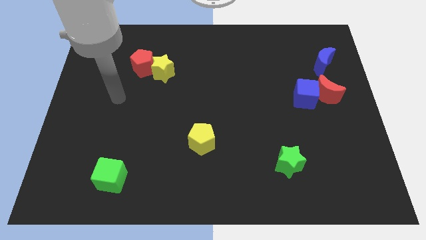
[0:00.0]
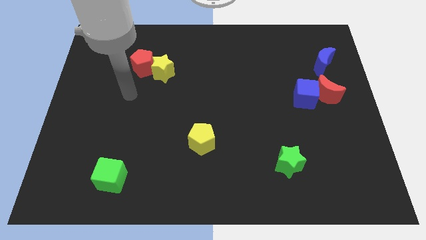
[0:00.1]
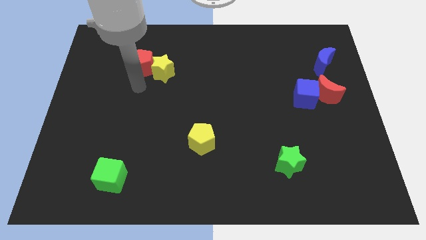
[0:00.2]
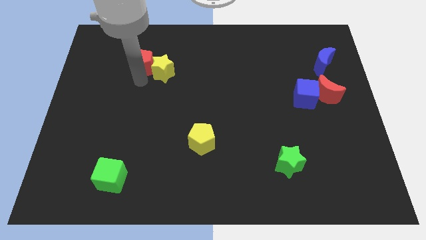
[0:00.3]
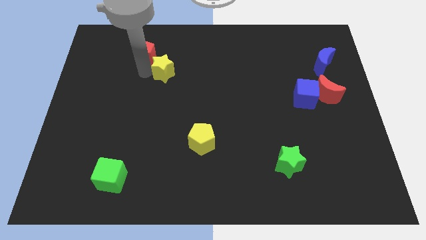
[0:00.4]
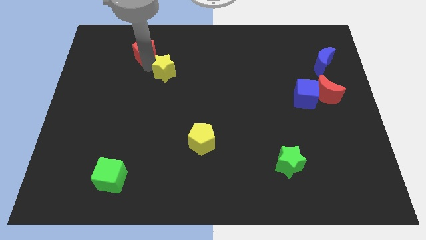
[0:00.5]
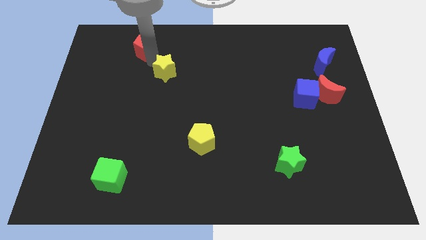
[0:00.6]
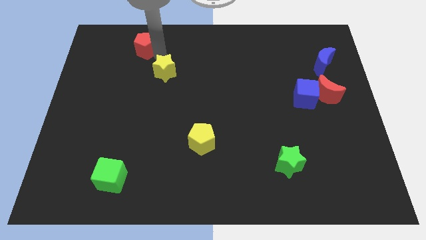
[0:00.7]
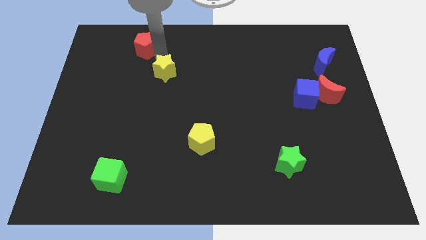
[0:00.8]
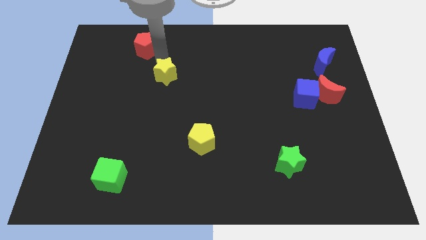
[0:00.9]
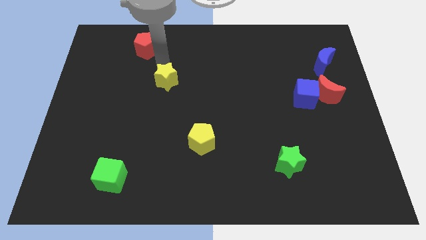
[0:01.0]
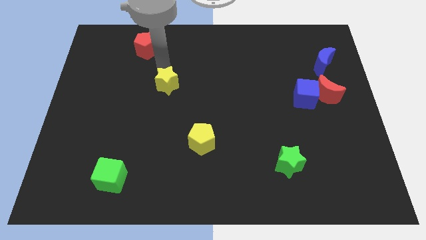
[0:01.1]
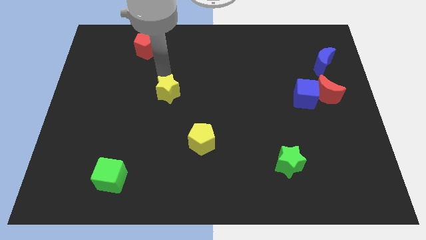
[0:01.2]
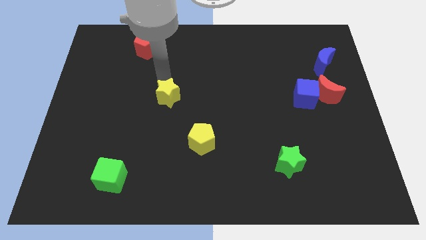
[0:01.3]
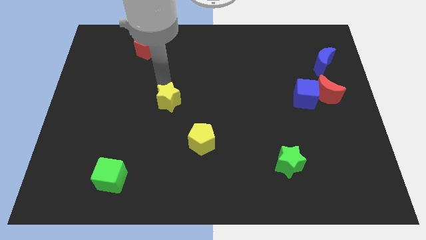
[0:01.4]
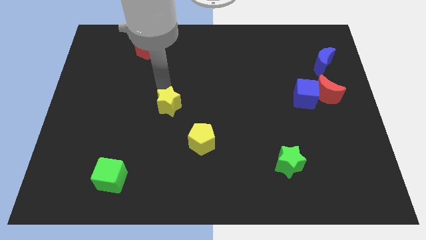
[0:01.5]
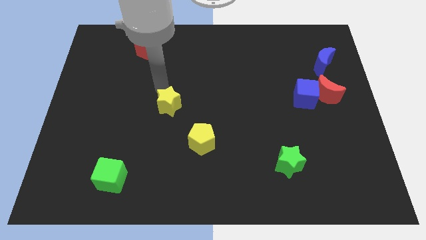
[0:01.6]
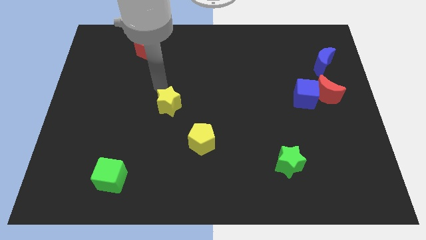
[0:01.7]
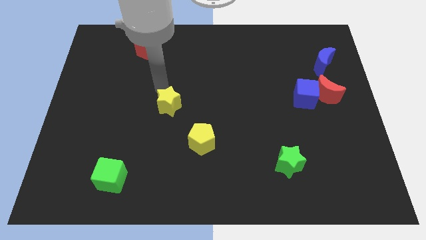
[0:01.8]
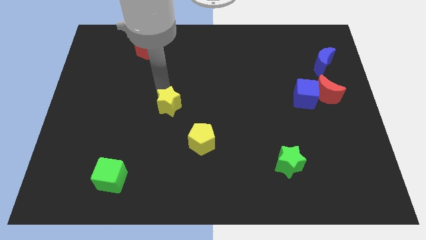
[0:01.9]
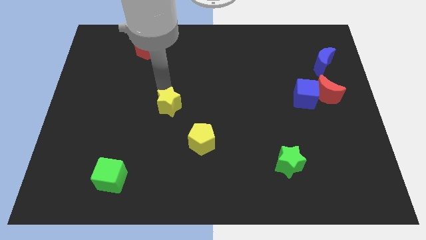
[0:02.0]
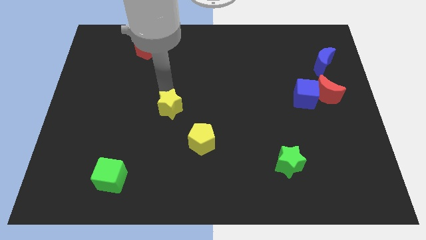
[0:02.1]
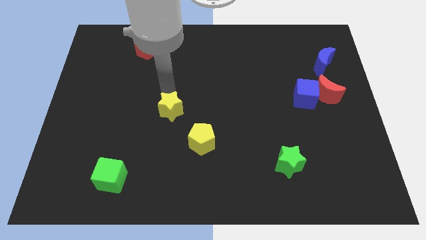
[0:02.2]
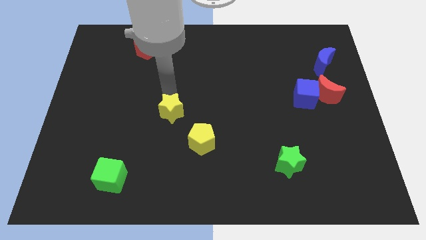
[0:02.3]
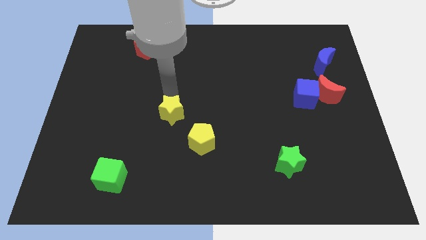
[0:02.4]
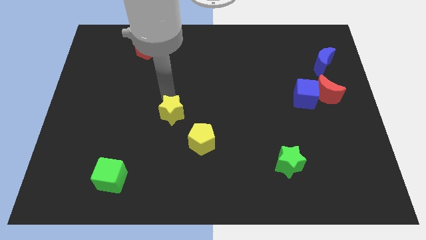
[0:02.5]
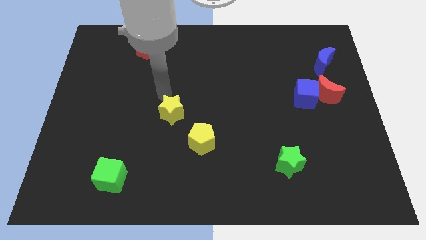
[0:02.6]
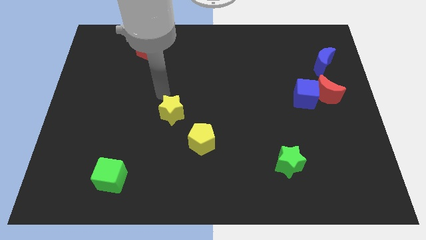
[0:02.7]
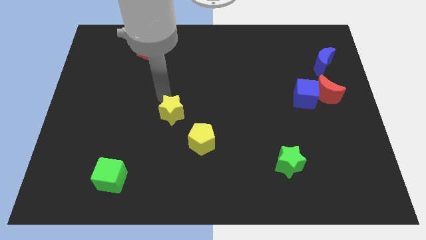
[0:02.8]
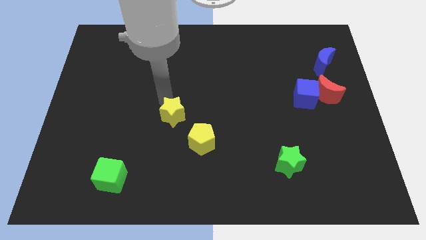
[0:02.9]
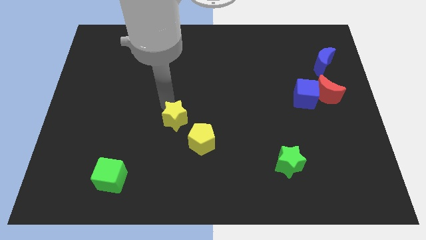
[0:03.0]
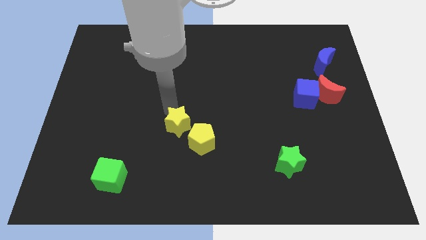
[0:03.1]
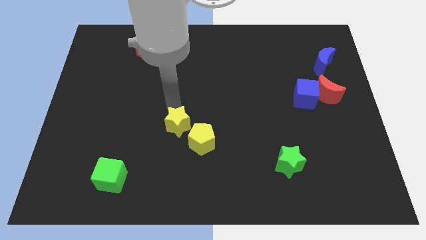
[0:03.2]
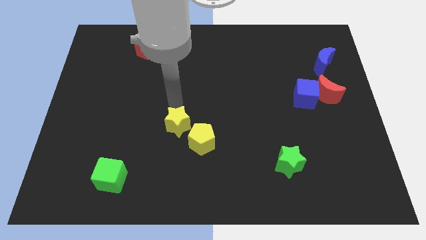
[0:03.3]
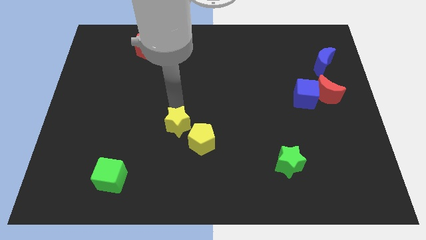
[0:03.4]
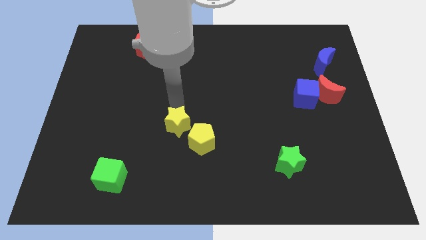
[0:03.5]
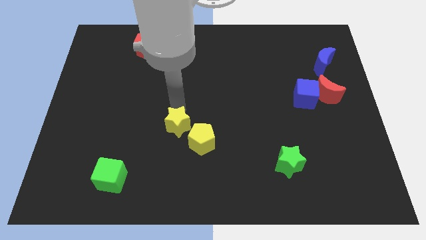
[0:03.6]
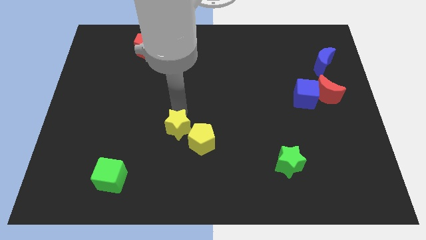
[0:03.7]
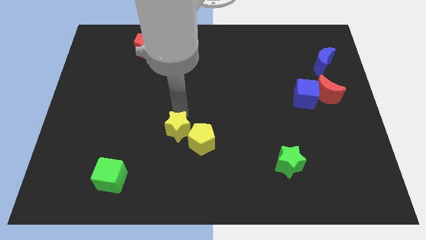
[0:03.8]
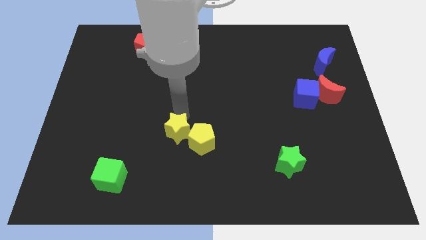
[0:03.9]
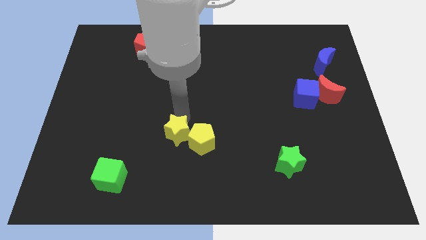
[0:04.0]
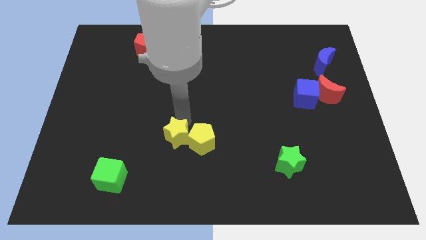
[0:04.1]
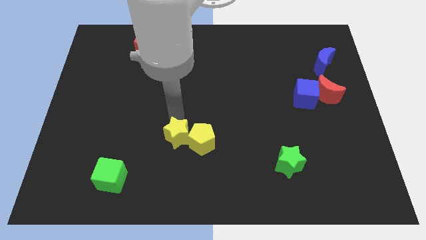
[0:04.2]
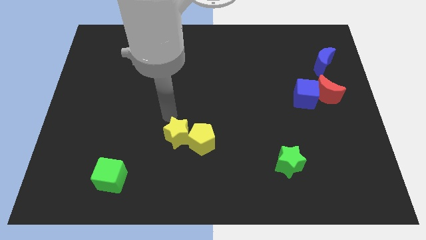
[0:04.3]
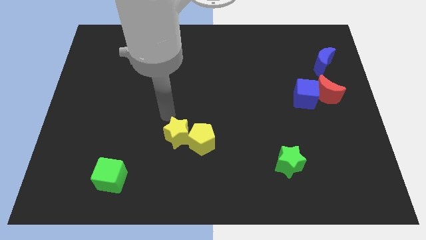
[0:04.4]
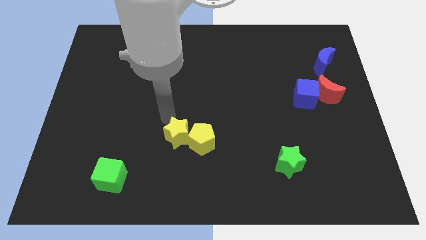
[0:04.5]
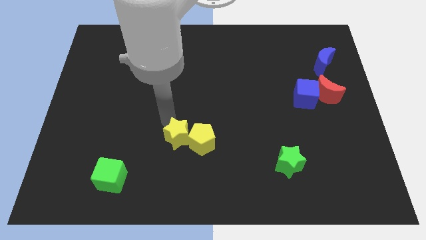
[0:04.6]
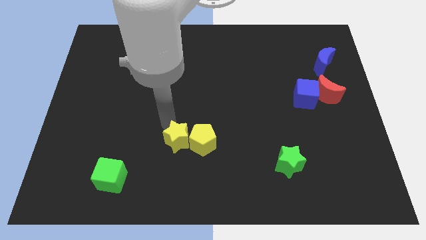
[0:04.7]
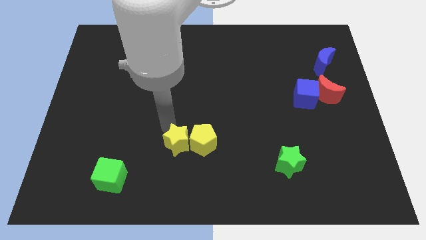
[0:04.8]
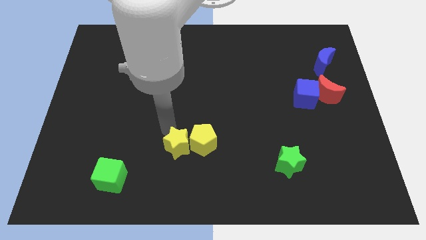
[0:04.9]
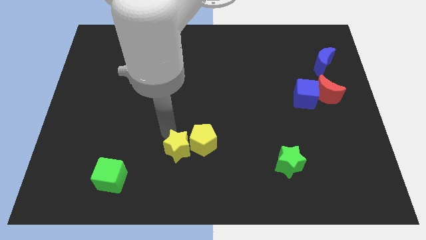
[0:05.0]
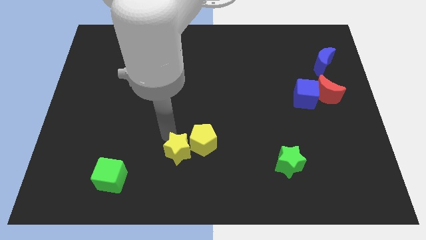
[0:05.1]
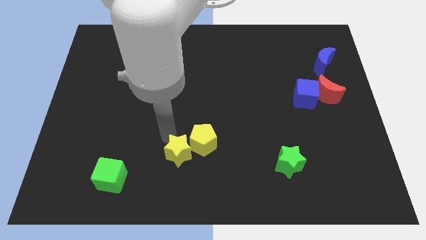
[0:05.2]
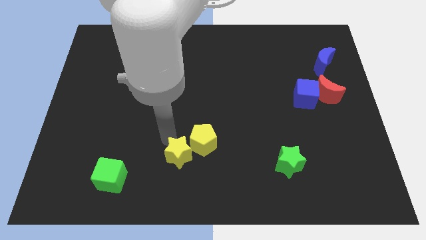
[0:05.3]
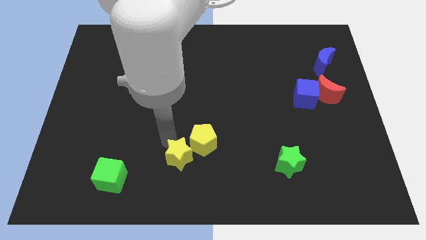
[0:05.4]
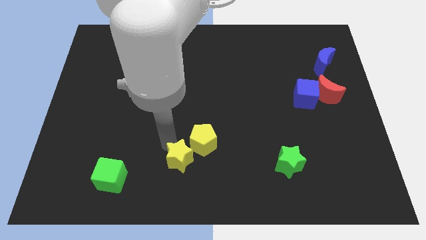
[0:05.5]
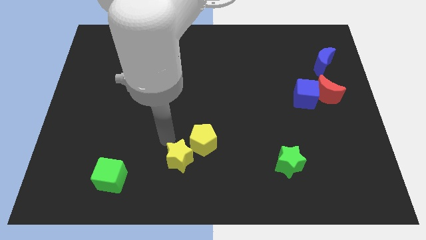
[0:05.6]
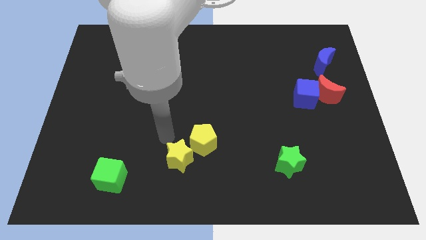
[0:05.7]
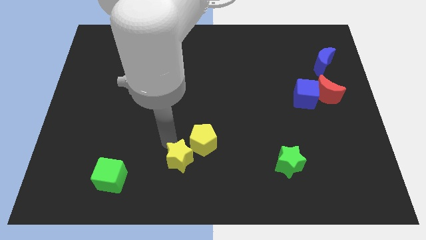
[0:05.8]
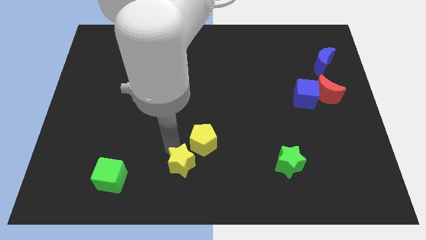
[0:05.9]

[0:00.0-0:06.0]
put the yellow star to the bottom
